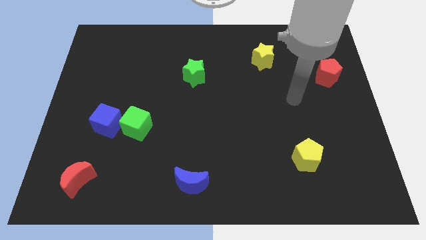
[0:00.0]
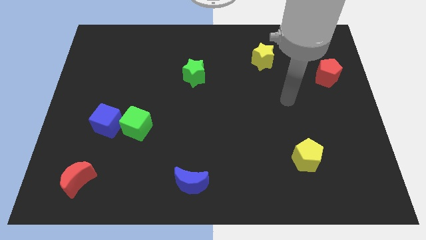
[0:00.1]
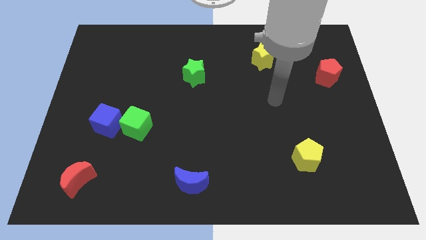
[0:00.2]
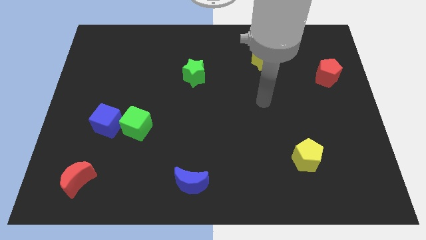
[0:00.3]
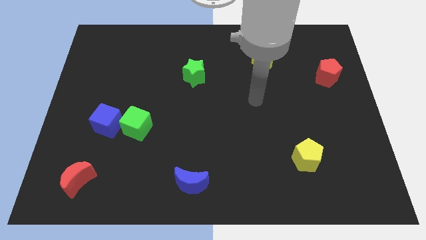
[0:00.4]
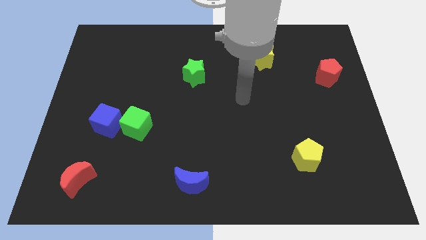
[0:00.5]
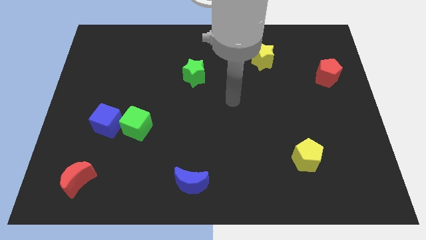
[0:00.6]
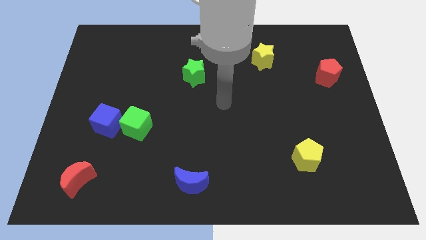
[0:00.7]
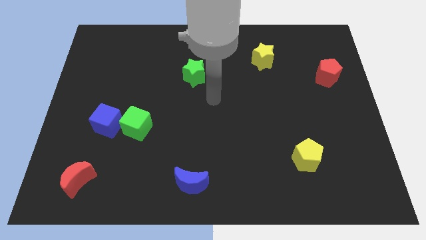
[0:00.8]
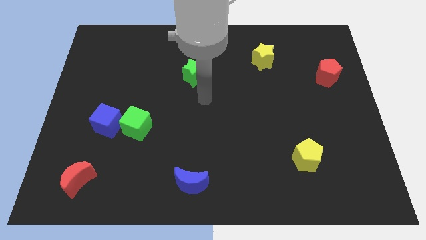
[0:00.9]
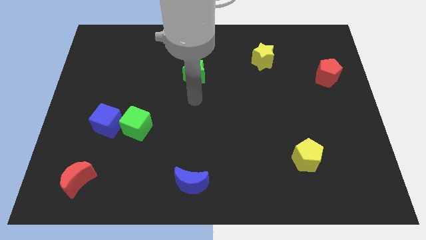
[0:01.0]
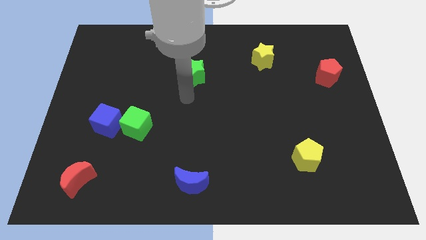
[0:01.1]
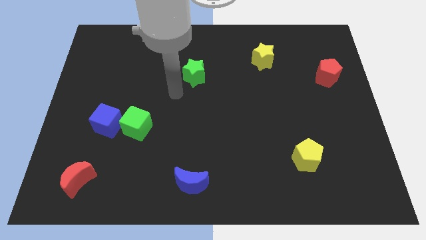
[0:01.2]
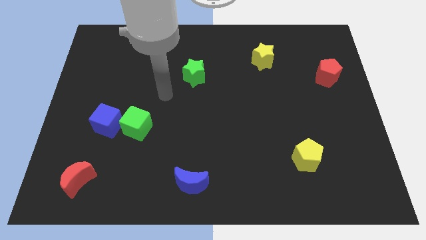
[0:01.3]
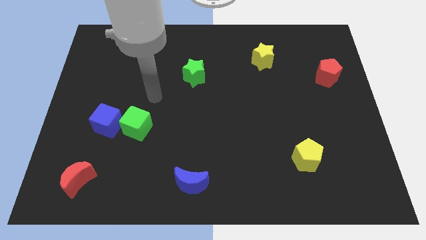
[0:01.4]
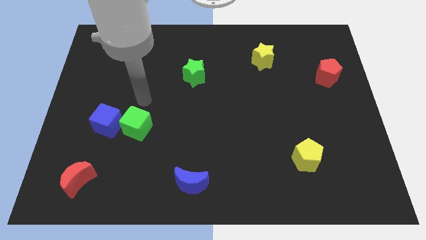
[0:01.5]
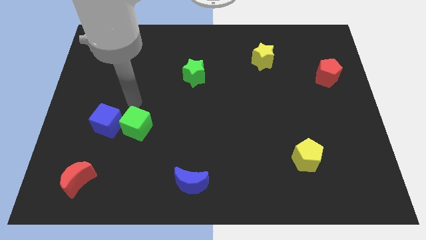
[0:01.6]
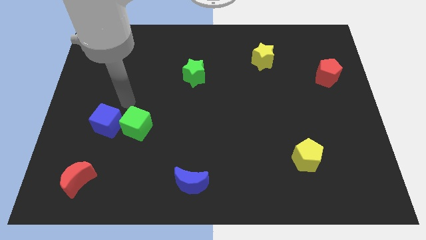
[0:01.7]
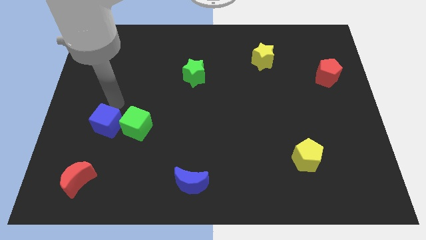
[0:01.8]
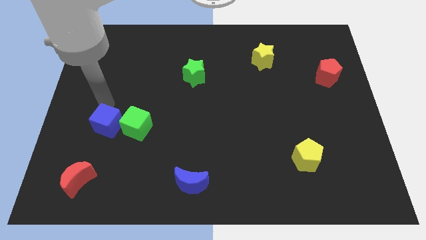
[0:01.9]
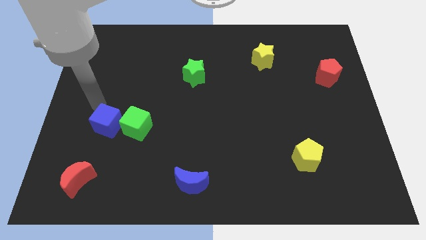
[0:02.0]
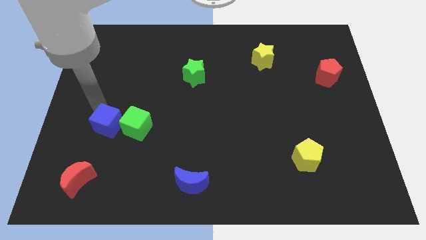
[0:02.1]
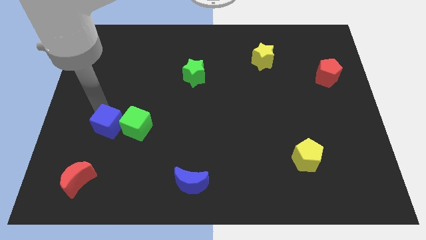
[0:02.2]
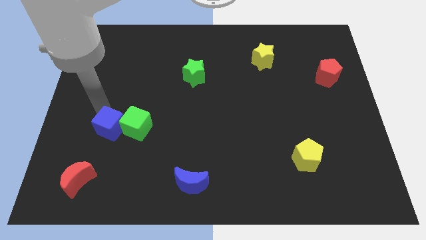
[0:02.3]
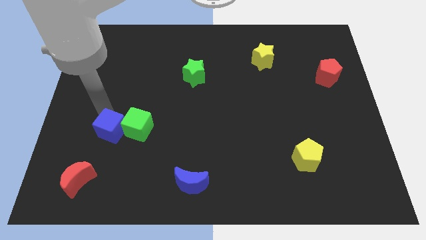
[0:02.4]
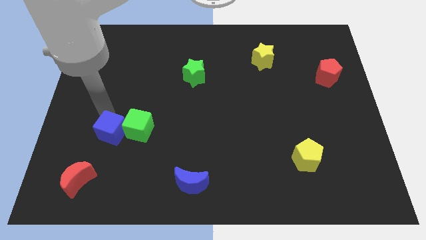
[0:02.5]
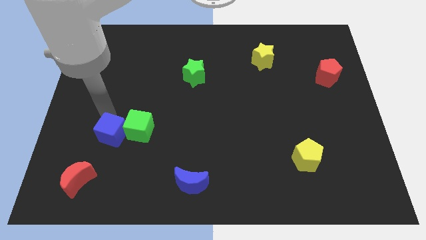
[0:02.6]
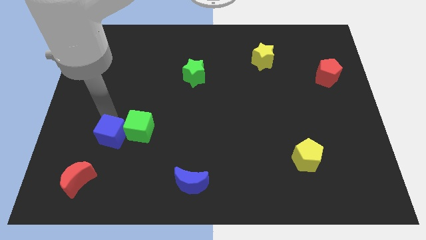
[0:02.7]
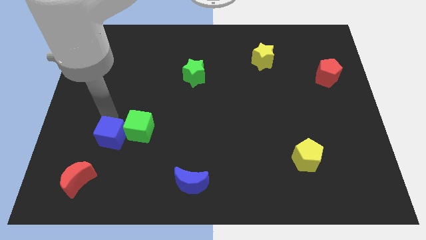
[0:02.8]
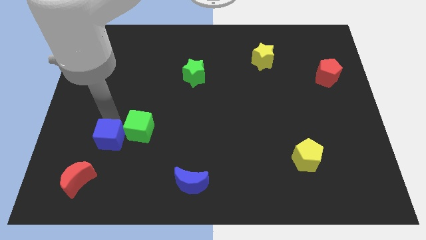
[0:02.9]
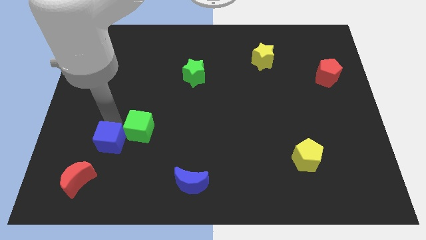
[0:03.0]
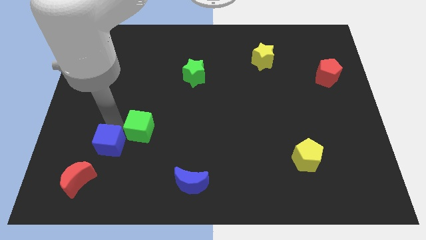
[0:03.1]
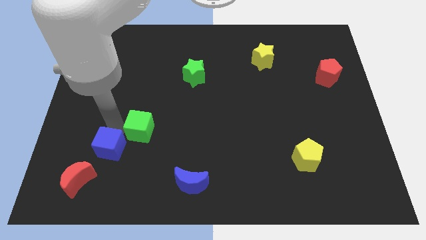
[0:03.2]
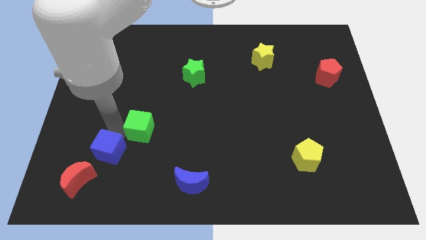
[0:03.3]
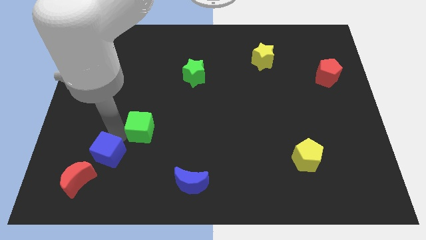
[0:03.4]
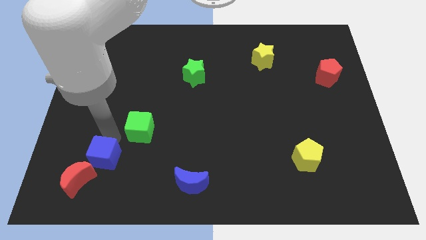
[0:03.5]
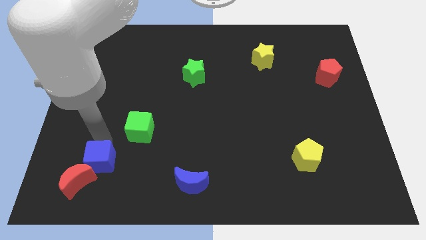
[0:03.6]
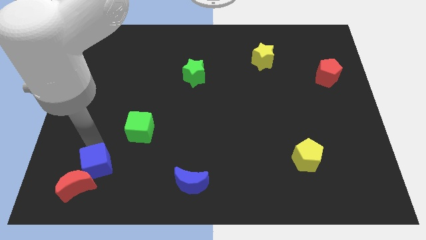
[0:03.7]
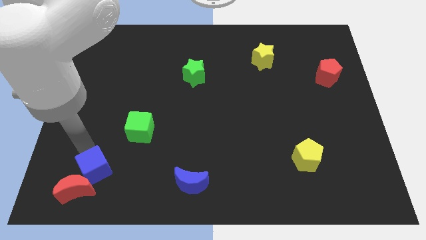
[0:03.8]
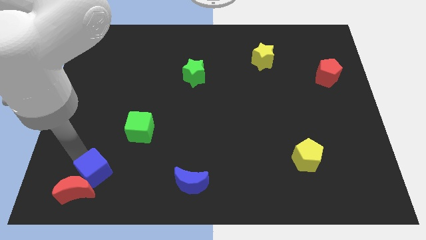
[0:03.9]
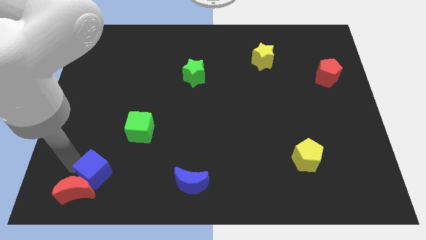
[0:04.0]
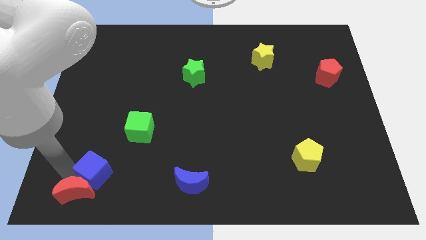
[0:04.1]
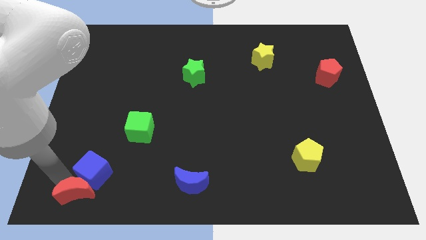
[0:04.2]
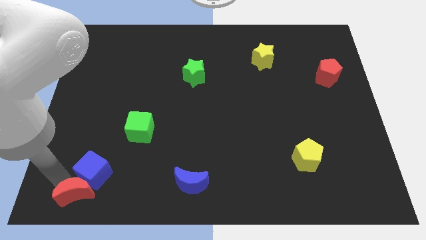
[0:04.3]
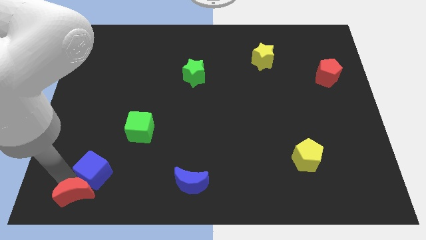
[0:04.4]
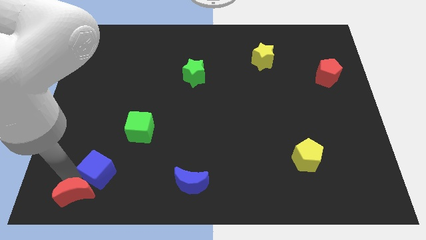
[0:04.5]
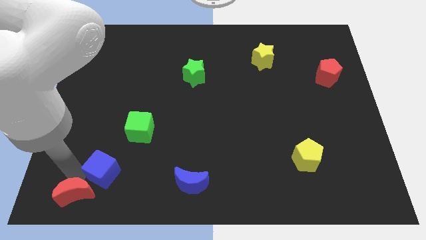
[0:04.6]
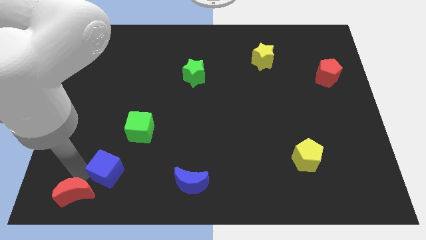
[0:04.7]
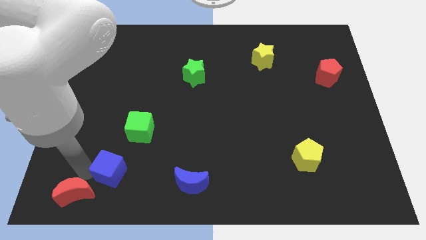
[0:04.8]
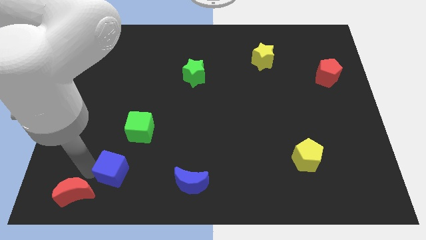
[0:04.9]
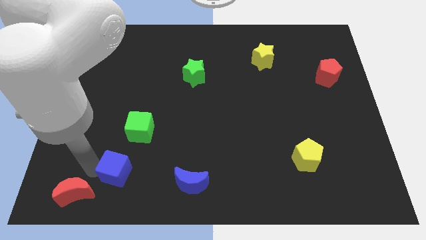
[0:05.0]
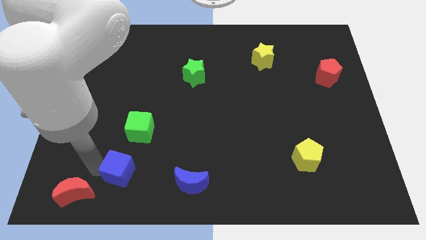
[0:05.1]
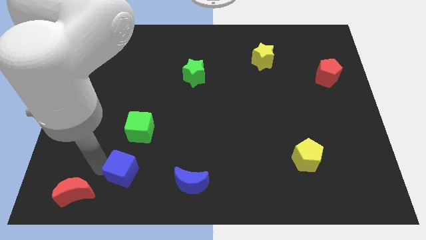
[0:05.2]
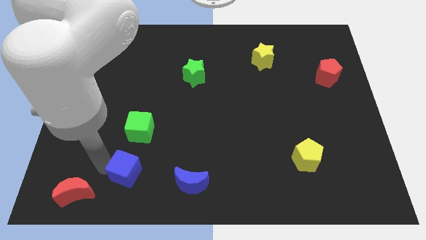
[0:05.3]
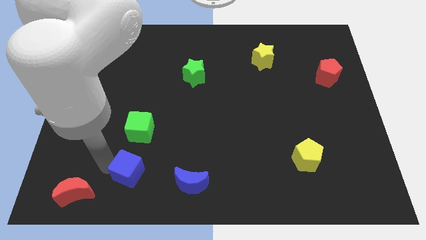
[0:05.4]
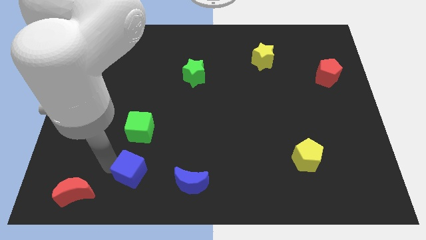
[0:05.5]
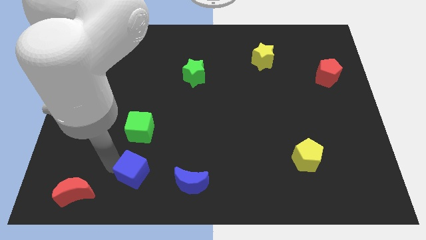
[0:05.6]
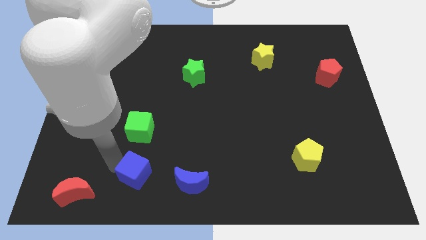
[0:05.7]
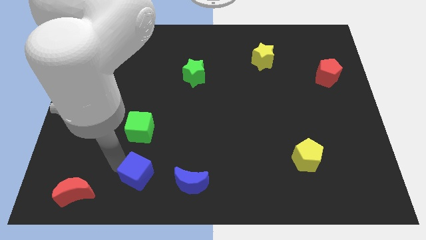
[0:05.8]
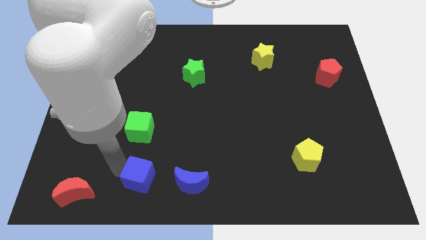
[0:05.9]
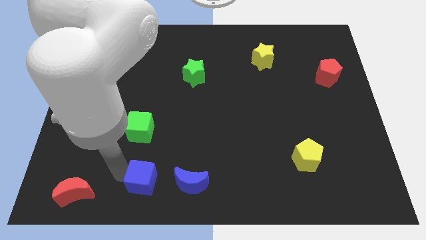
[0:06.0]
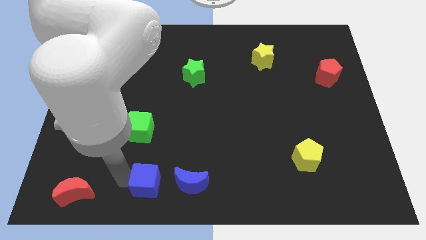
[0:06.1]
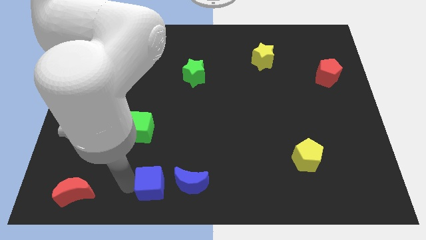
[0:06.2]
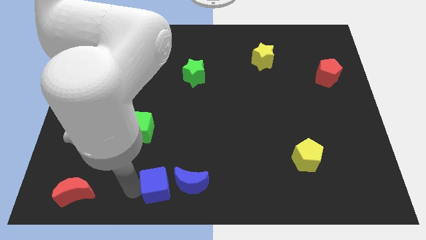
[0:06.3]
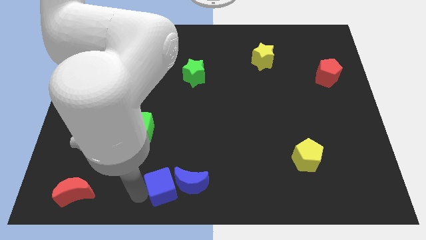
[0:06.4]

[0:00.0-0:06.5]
put the blue cube next to the blue moon

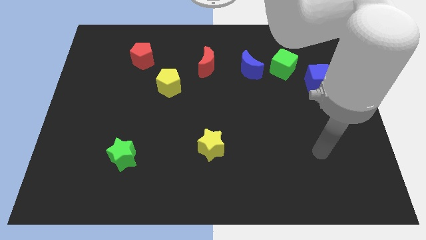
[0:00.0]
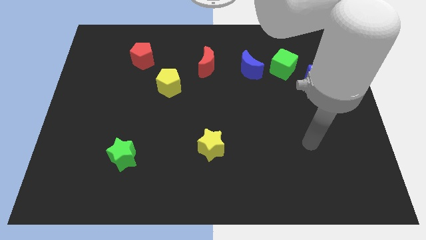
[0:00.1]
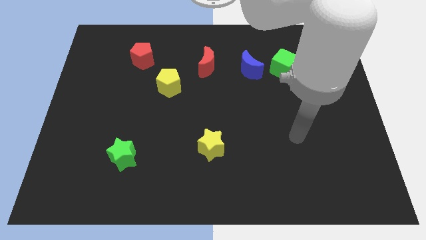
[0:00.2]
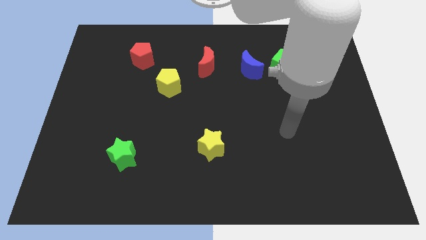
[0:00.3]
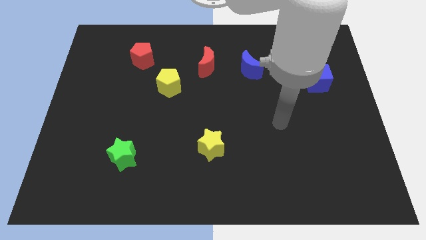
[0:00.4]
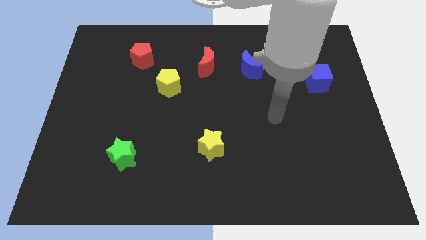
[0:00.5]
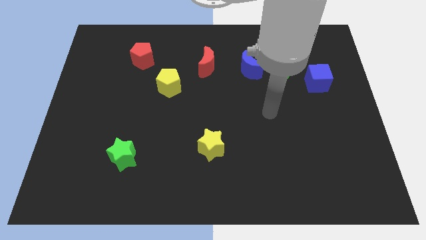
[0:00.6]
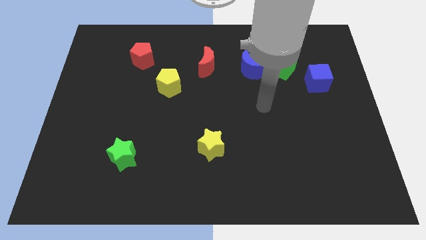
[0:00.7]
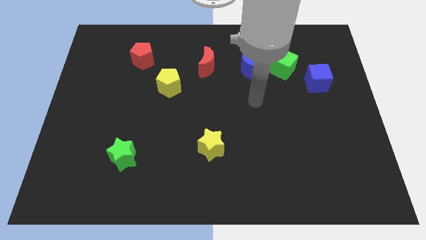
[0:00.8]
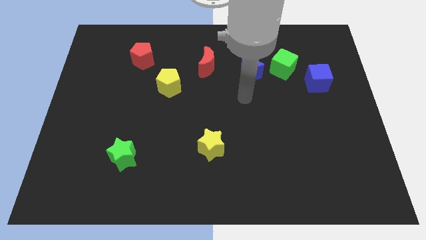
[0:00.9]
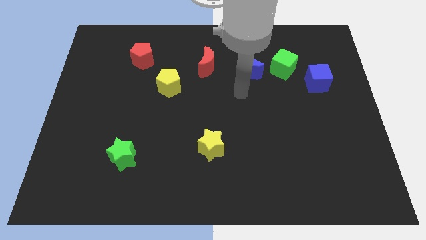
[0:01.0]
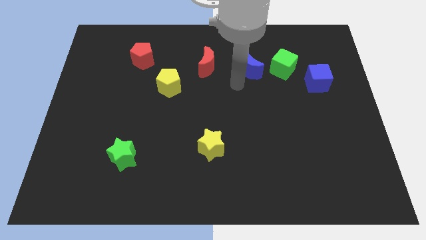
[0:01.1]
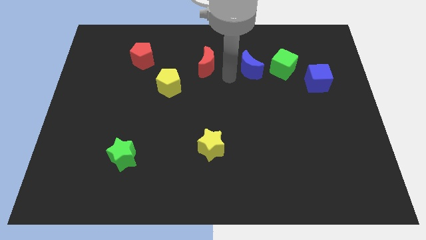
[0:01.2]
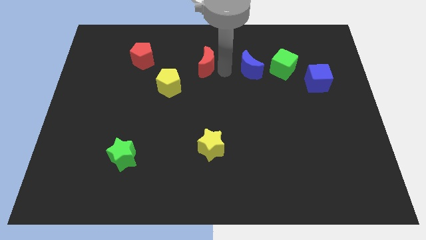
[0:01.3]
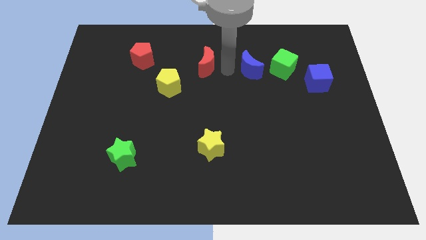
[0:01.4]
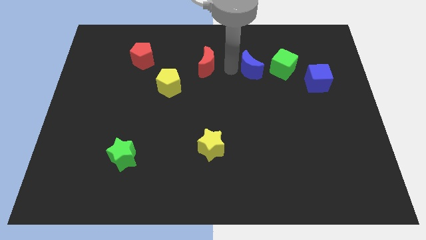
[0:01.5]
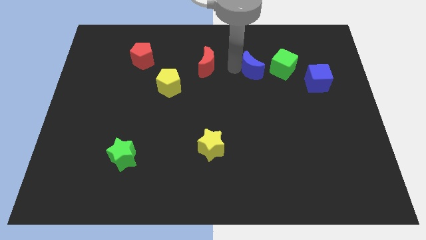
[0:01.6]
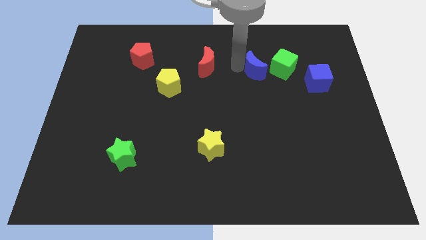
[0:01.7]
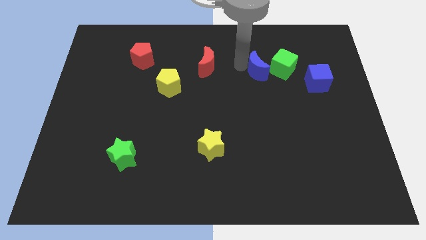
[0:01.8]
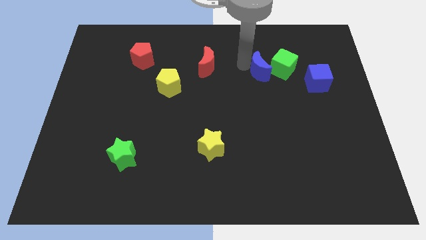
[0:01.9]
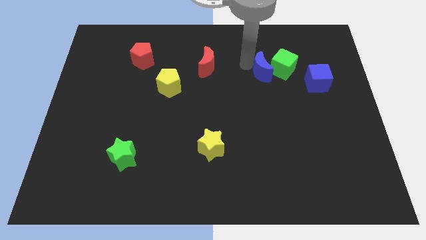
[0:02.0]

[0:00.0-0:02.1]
put the blue moon next to the green cube
